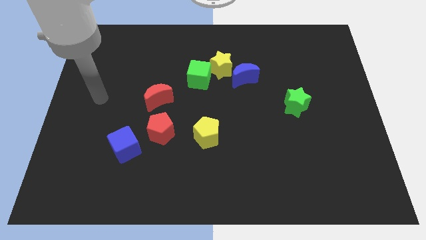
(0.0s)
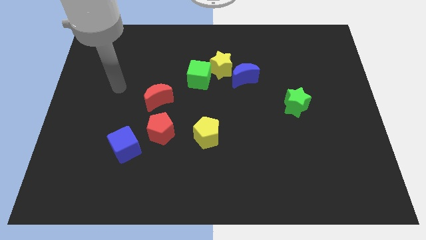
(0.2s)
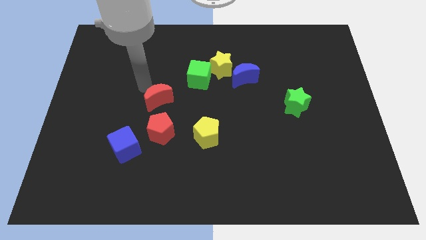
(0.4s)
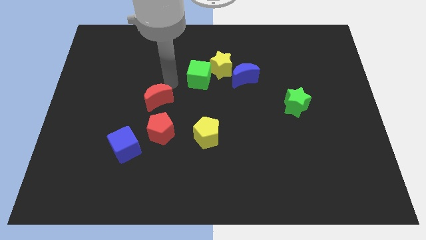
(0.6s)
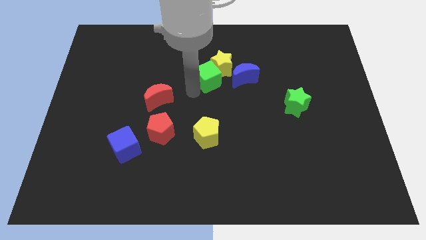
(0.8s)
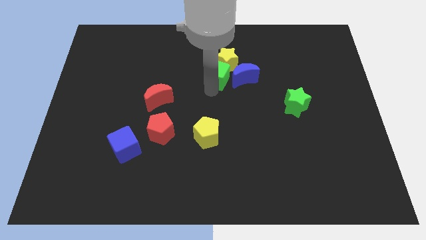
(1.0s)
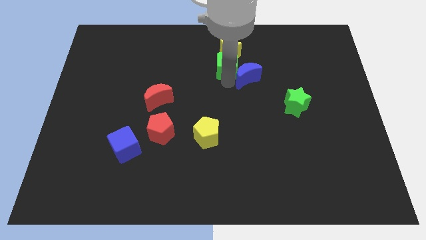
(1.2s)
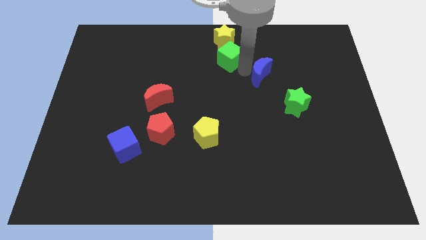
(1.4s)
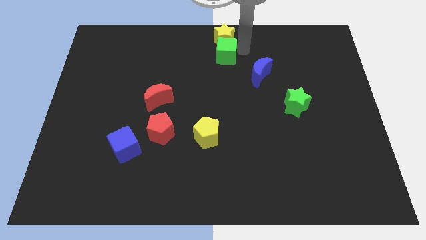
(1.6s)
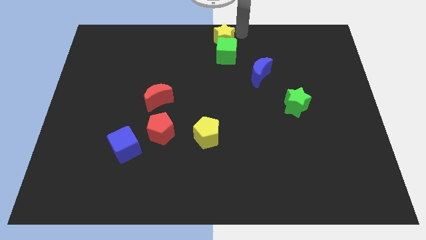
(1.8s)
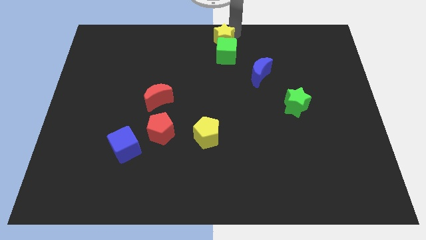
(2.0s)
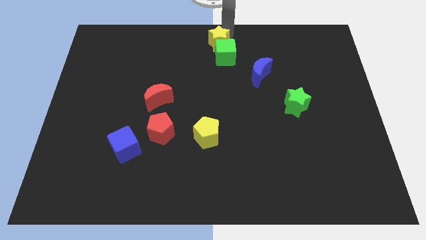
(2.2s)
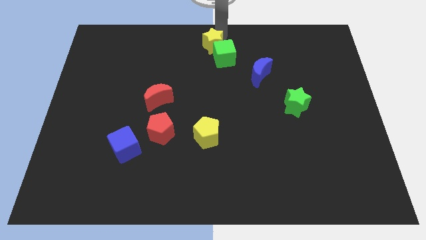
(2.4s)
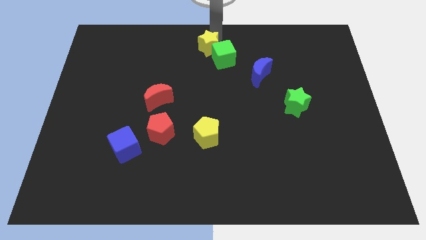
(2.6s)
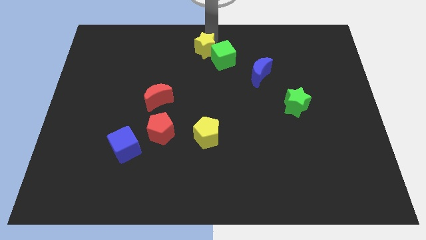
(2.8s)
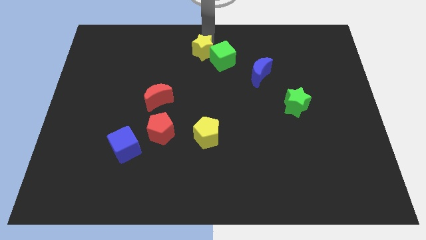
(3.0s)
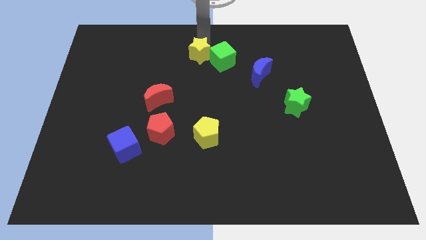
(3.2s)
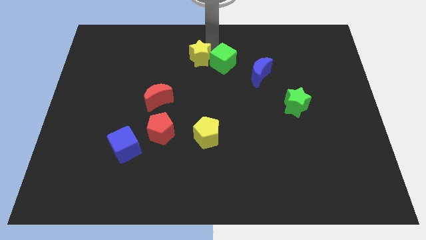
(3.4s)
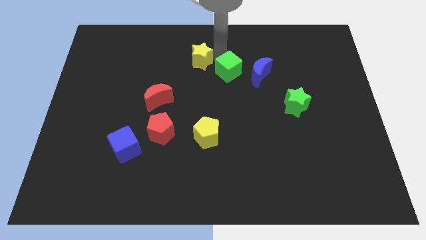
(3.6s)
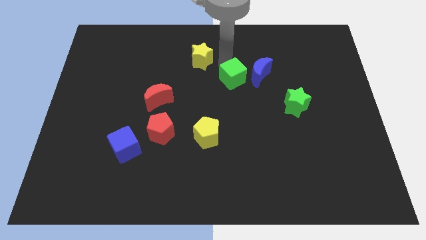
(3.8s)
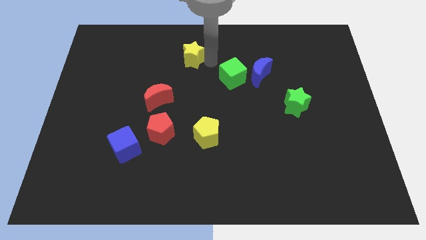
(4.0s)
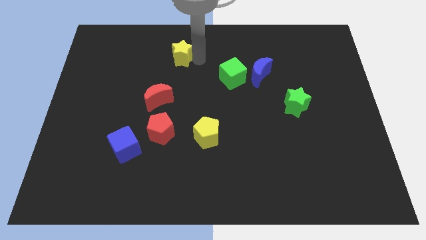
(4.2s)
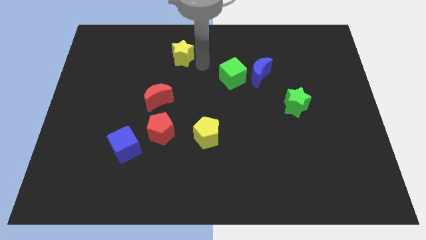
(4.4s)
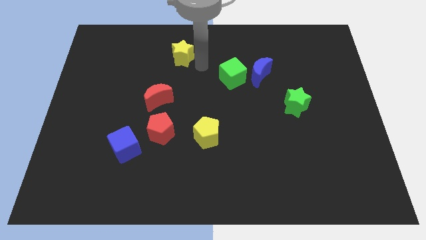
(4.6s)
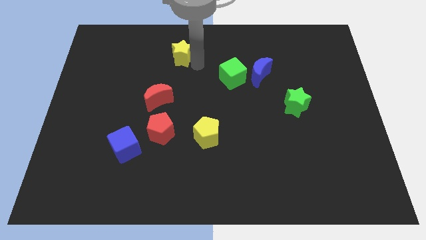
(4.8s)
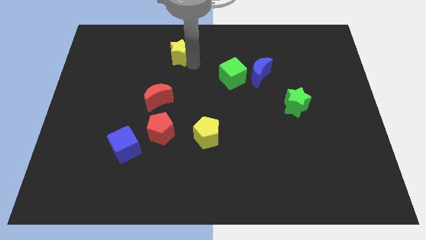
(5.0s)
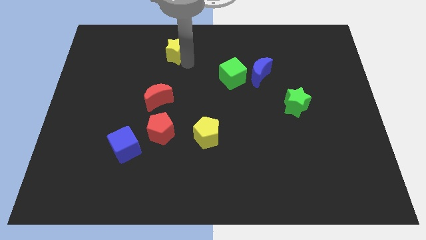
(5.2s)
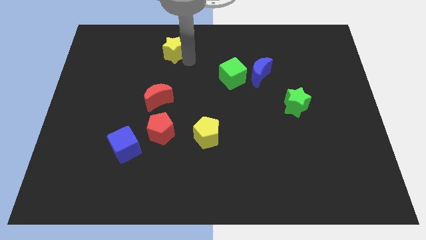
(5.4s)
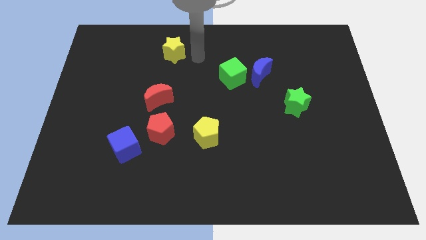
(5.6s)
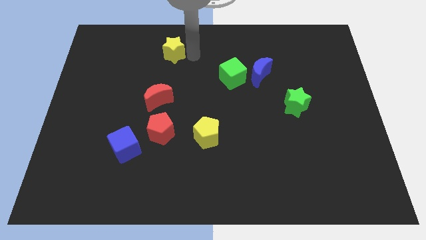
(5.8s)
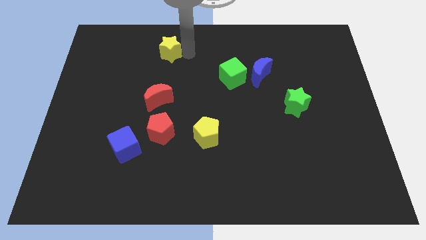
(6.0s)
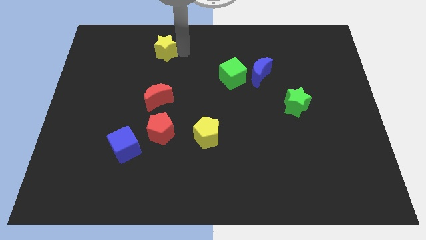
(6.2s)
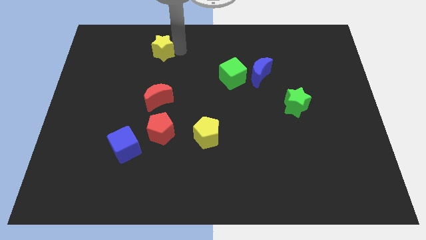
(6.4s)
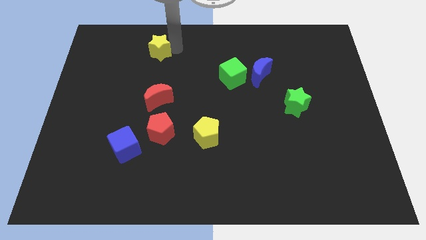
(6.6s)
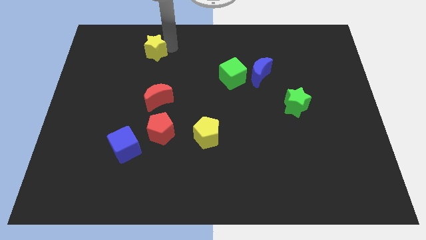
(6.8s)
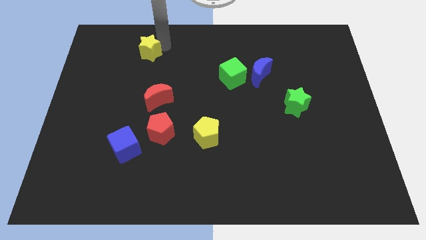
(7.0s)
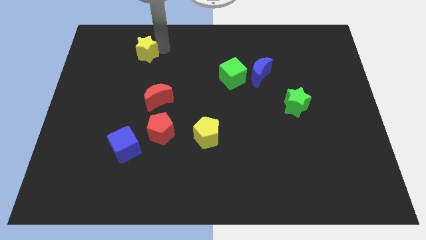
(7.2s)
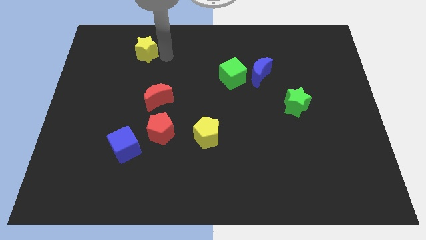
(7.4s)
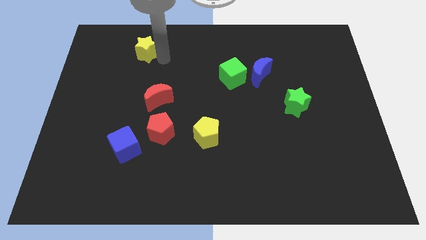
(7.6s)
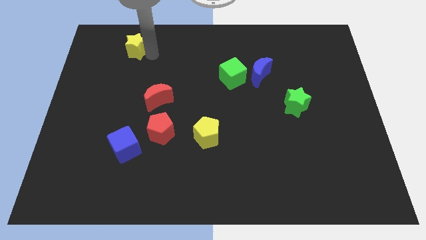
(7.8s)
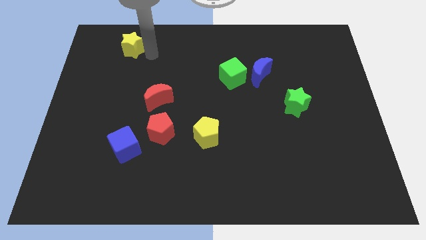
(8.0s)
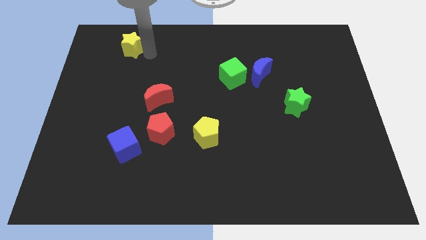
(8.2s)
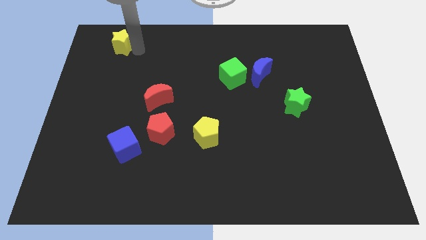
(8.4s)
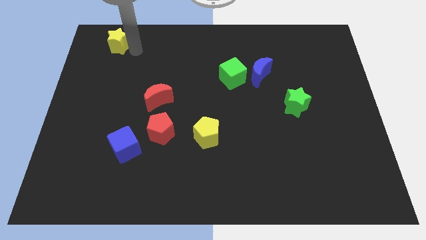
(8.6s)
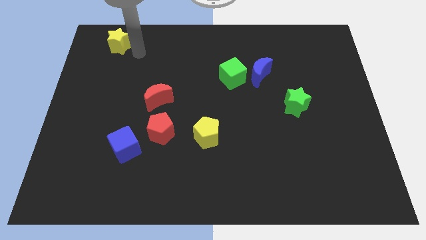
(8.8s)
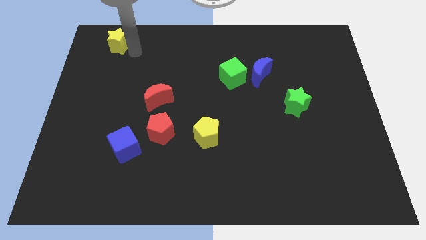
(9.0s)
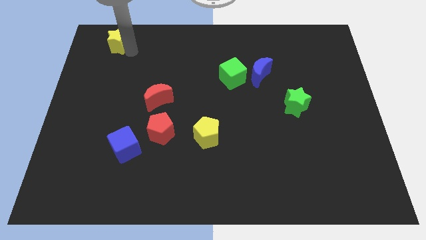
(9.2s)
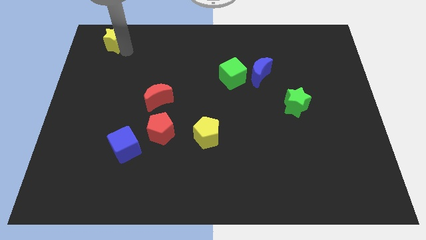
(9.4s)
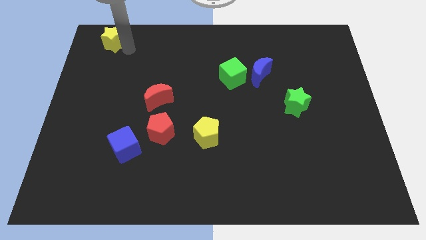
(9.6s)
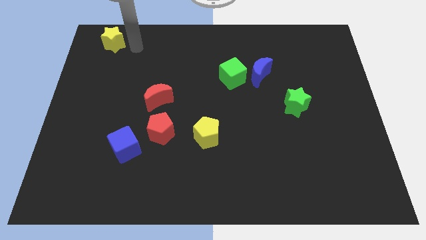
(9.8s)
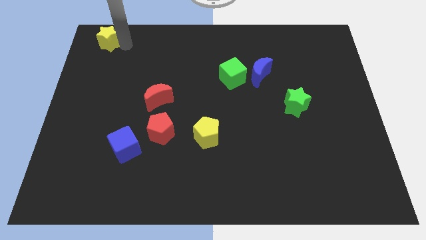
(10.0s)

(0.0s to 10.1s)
slide the yellow star to the top left

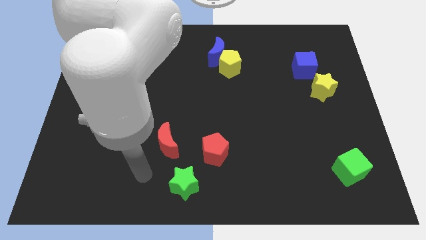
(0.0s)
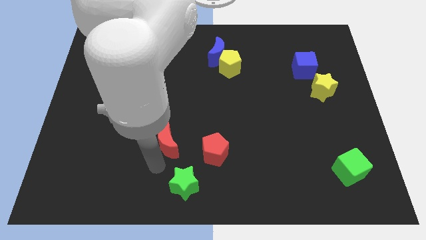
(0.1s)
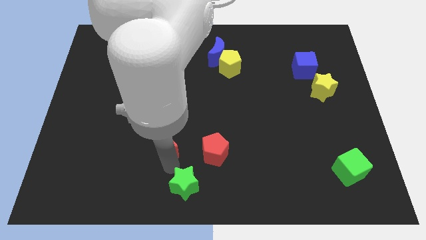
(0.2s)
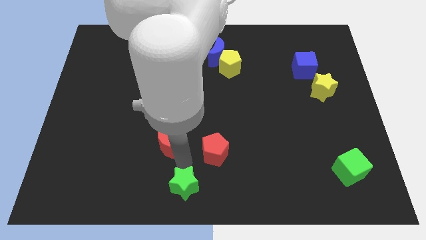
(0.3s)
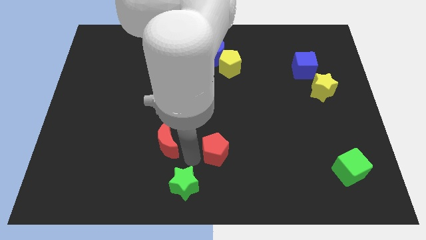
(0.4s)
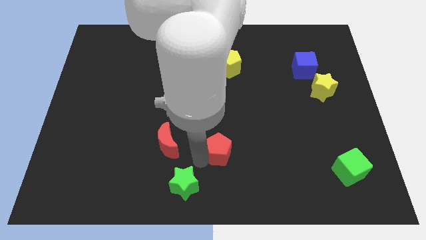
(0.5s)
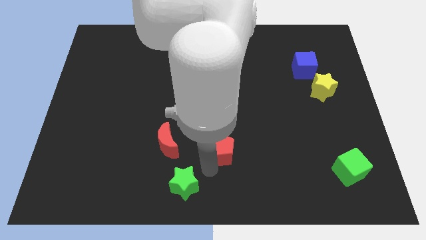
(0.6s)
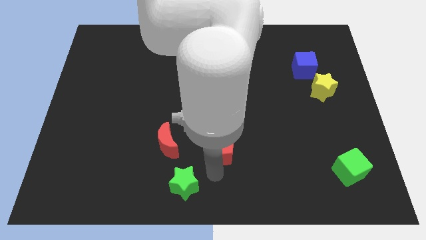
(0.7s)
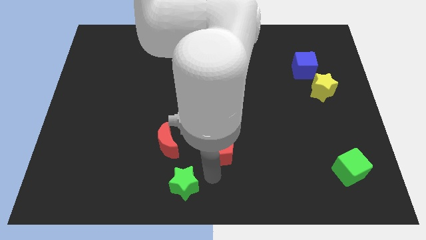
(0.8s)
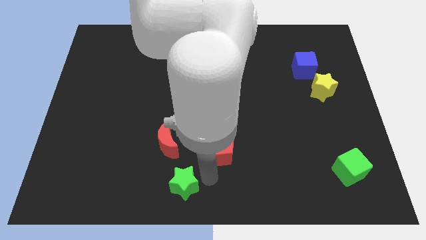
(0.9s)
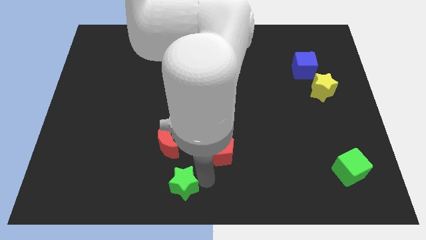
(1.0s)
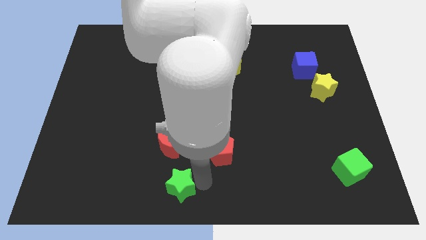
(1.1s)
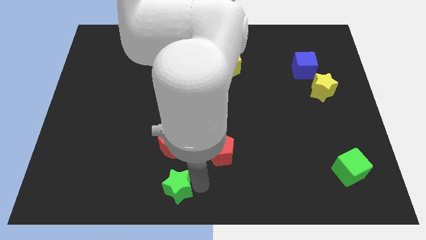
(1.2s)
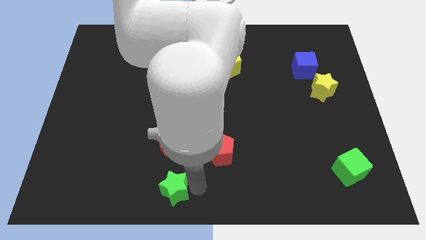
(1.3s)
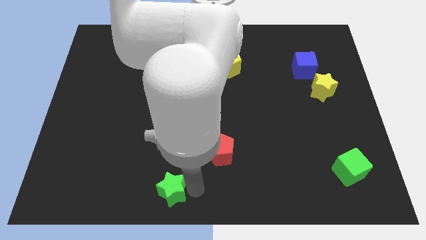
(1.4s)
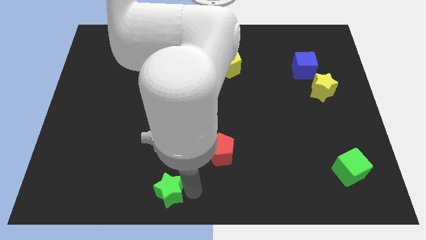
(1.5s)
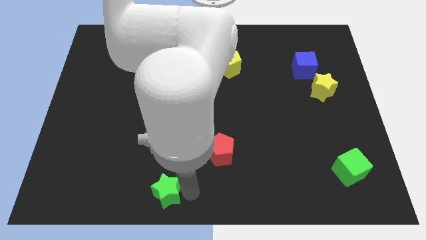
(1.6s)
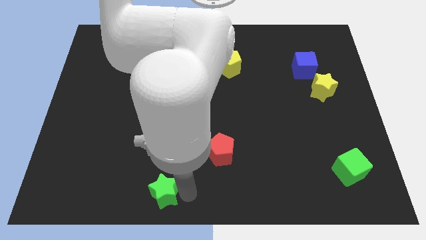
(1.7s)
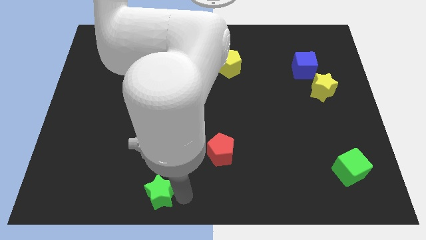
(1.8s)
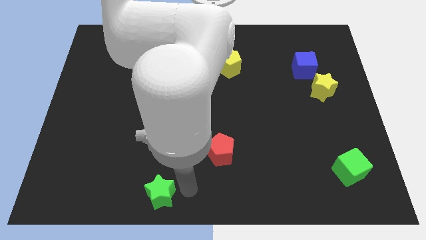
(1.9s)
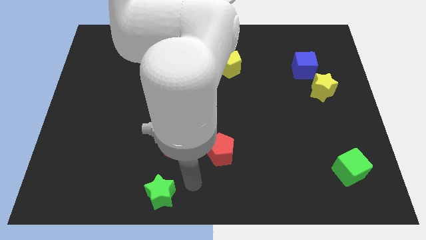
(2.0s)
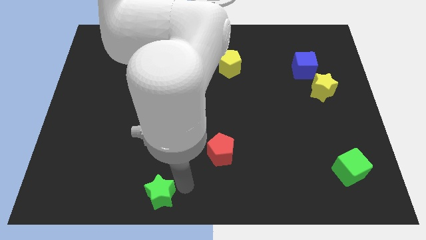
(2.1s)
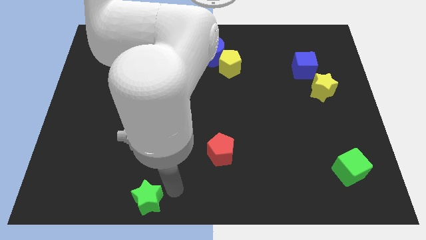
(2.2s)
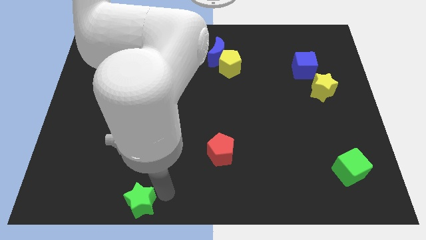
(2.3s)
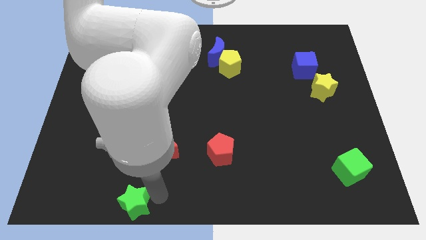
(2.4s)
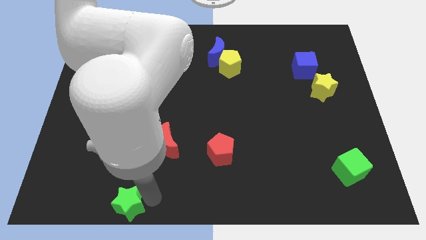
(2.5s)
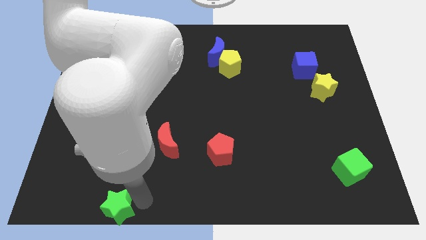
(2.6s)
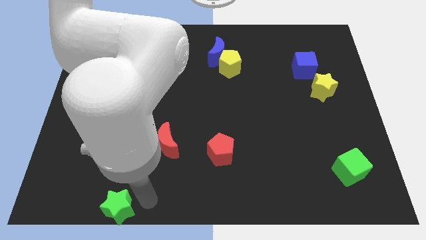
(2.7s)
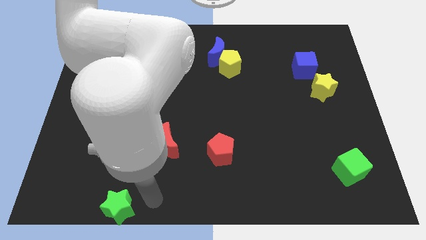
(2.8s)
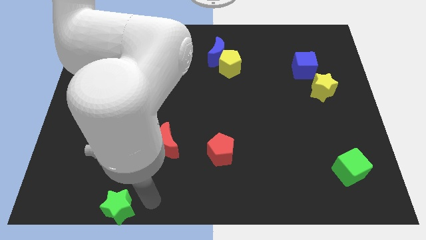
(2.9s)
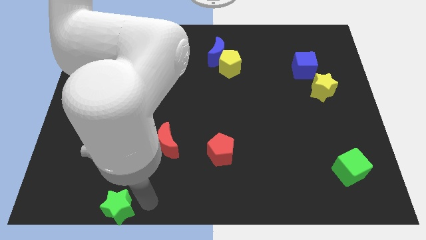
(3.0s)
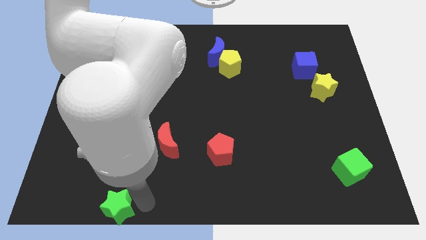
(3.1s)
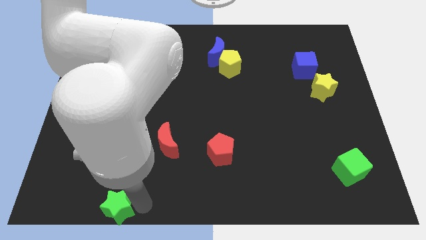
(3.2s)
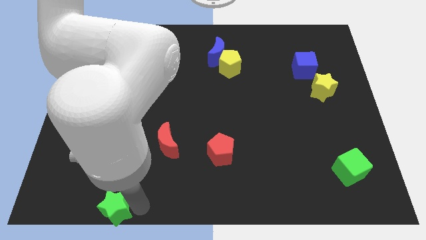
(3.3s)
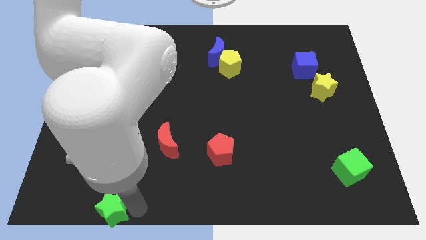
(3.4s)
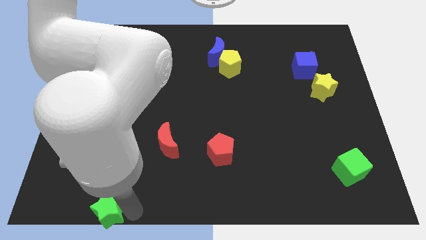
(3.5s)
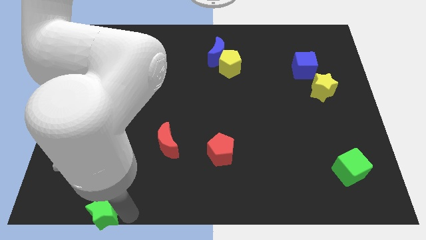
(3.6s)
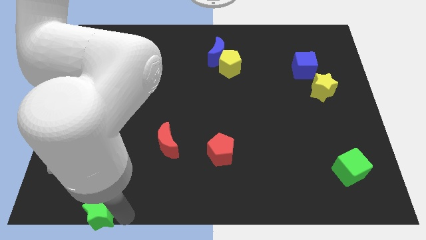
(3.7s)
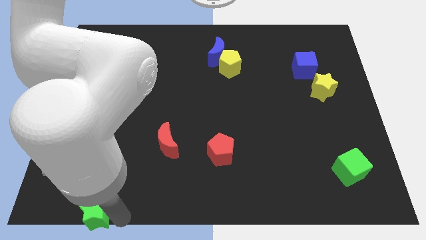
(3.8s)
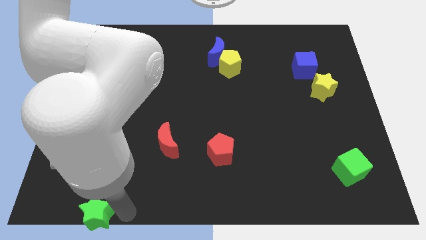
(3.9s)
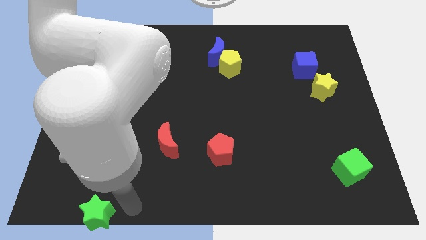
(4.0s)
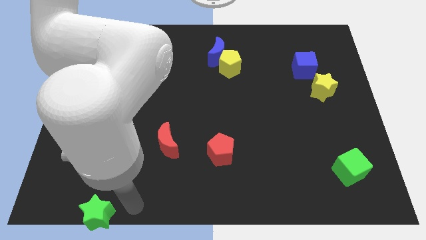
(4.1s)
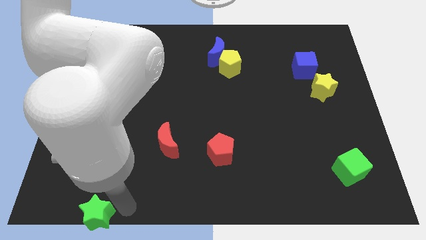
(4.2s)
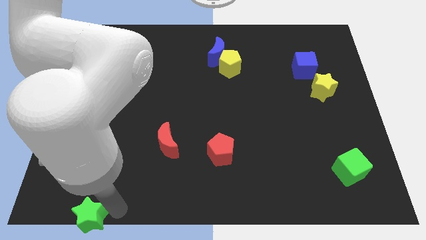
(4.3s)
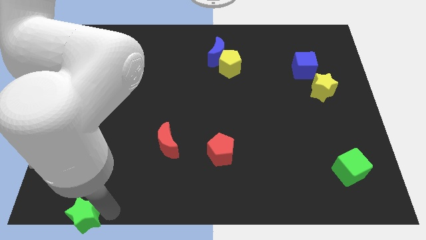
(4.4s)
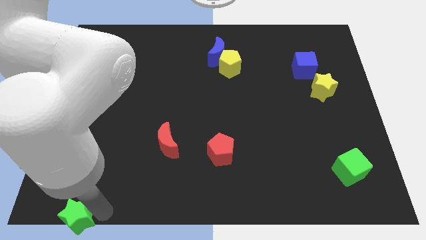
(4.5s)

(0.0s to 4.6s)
put the green star to the lower left corner
